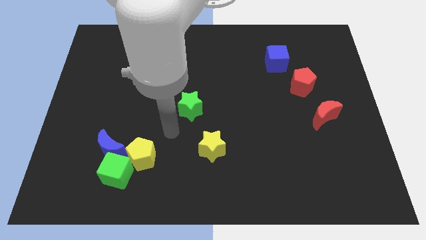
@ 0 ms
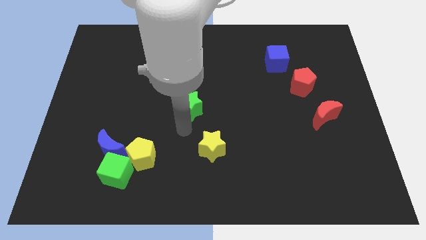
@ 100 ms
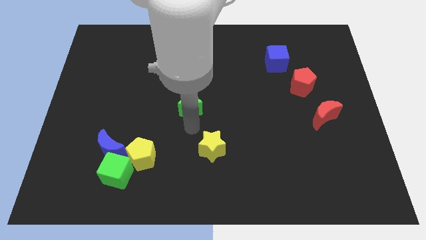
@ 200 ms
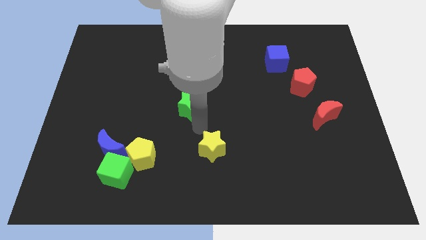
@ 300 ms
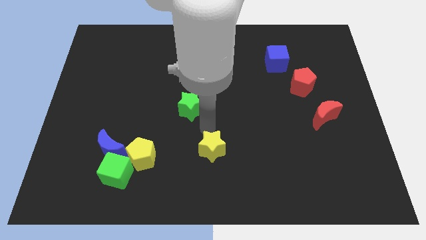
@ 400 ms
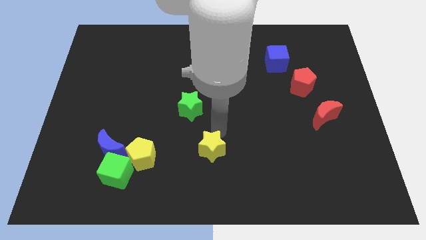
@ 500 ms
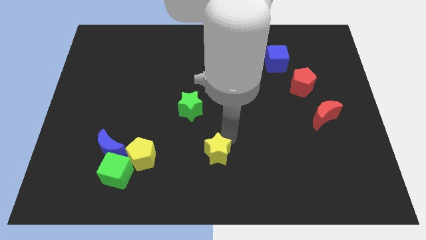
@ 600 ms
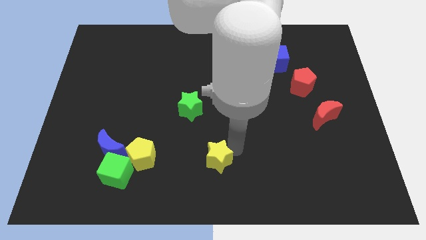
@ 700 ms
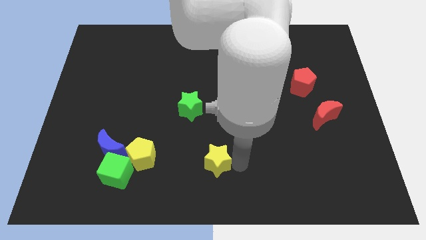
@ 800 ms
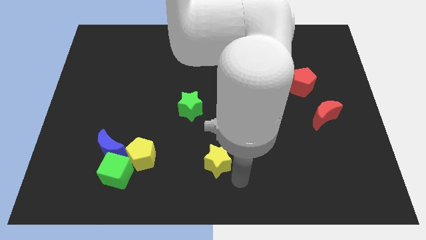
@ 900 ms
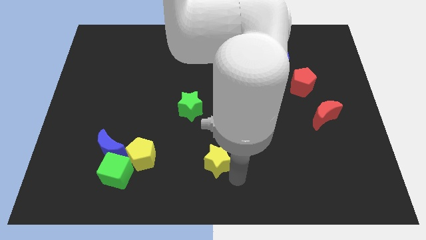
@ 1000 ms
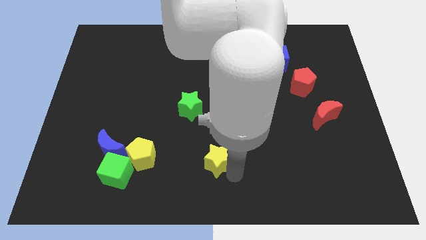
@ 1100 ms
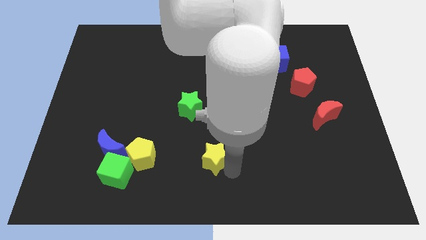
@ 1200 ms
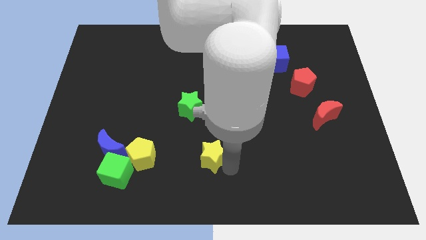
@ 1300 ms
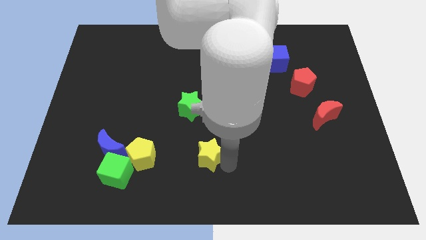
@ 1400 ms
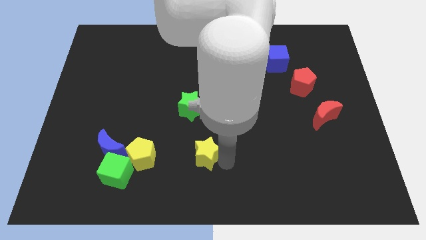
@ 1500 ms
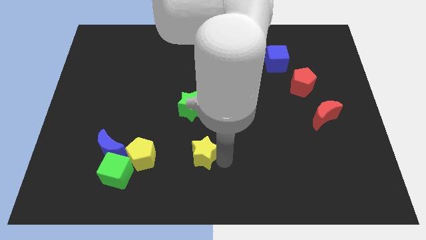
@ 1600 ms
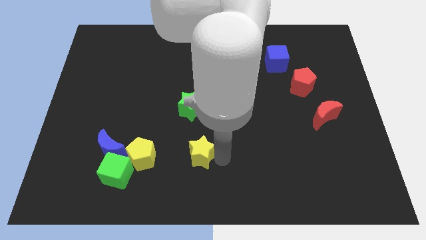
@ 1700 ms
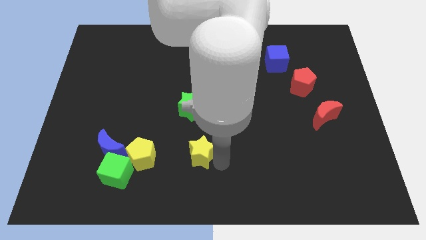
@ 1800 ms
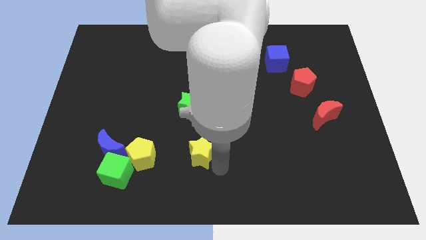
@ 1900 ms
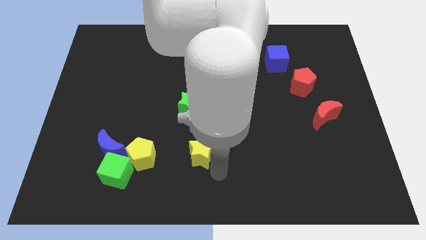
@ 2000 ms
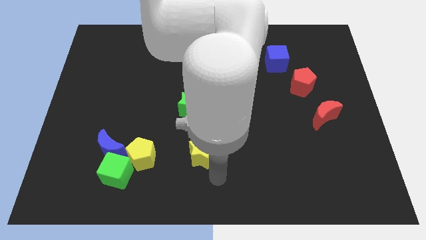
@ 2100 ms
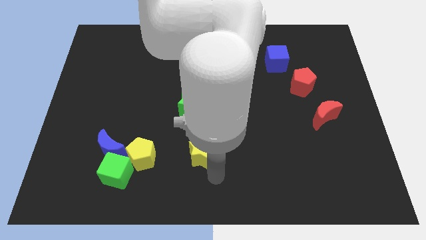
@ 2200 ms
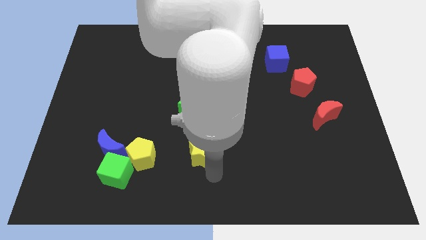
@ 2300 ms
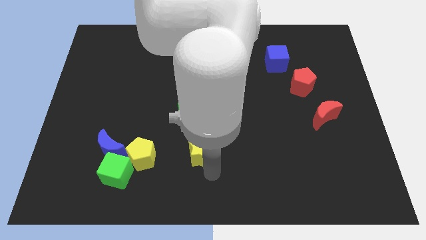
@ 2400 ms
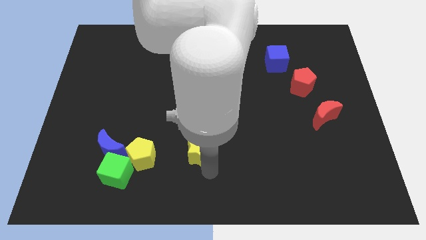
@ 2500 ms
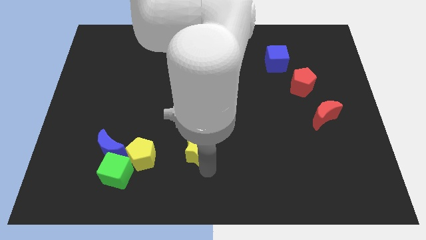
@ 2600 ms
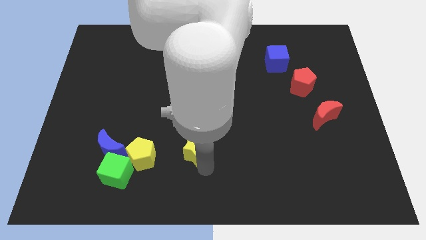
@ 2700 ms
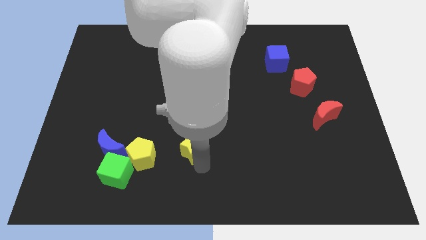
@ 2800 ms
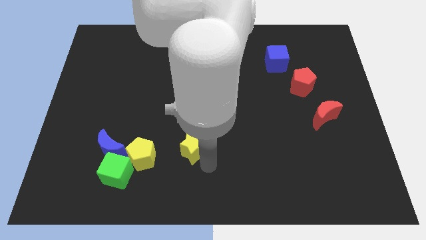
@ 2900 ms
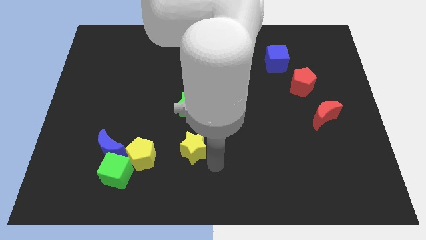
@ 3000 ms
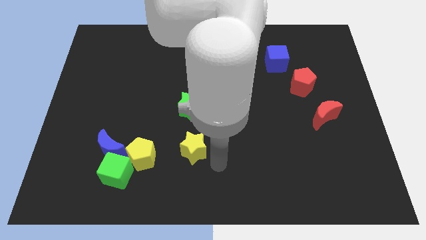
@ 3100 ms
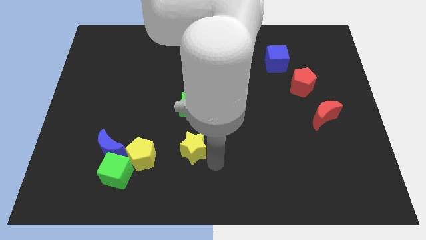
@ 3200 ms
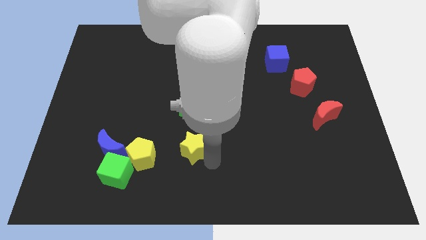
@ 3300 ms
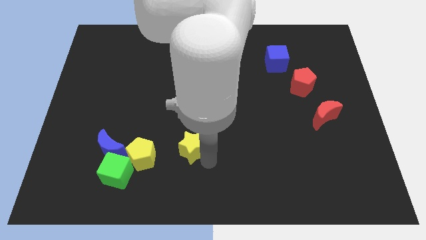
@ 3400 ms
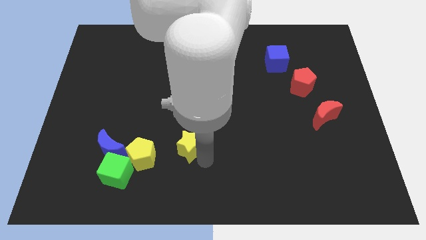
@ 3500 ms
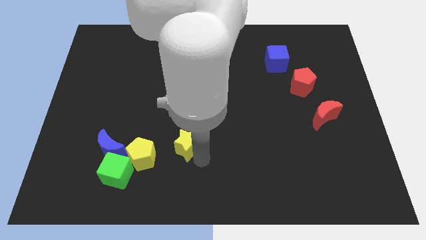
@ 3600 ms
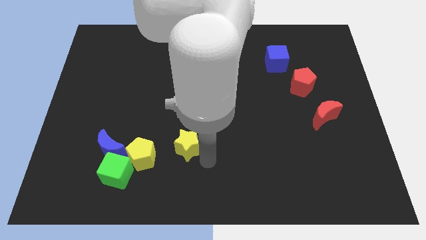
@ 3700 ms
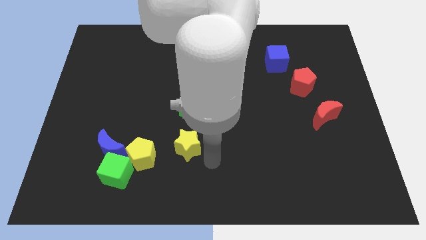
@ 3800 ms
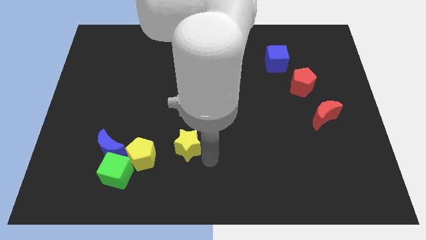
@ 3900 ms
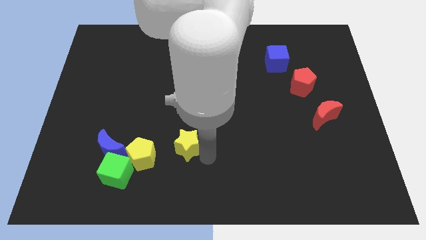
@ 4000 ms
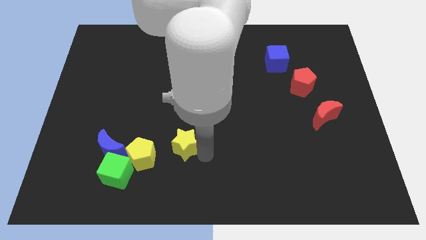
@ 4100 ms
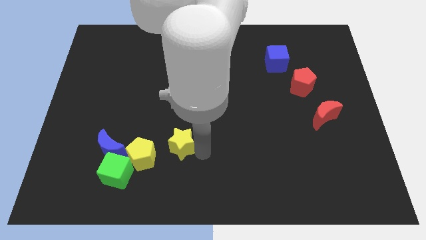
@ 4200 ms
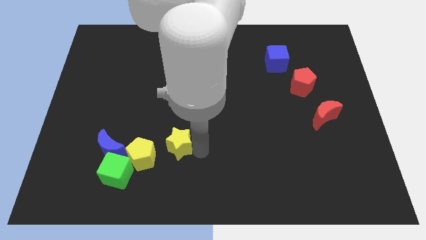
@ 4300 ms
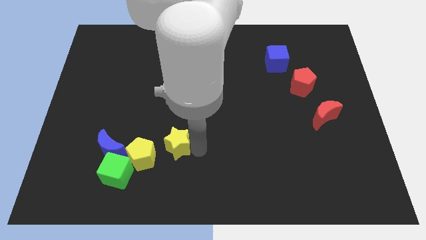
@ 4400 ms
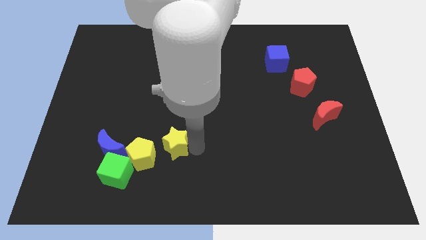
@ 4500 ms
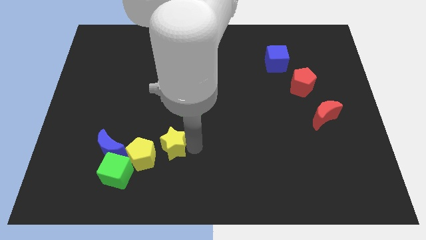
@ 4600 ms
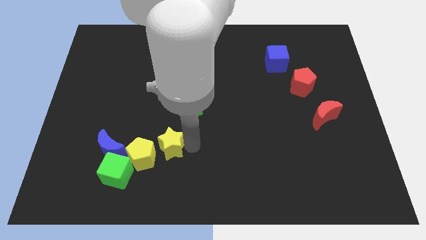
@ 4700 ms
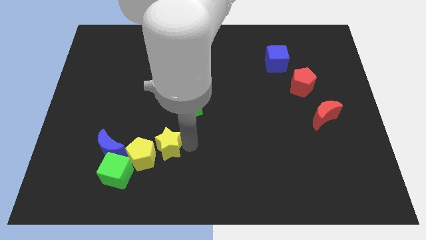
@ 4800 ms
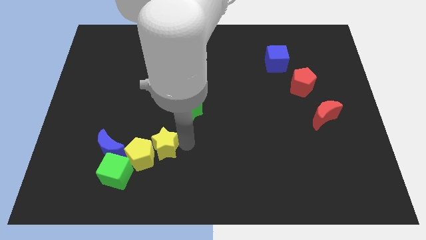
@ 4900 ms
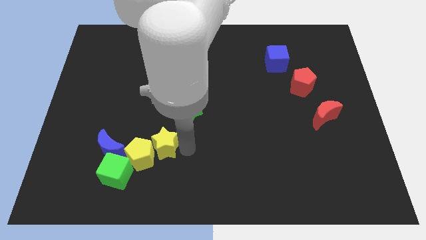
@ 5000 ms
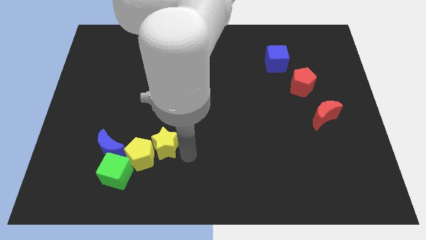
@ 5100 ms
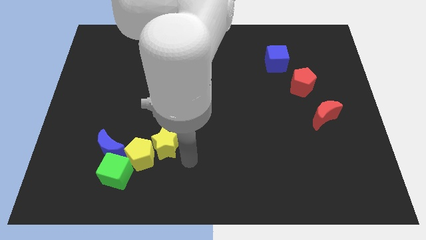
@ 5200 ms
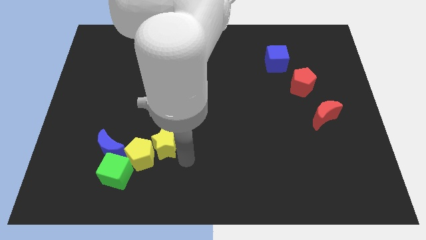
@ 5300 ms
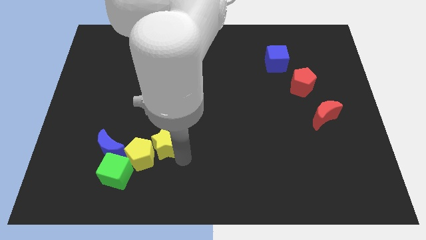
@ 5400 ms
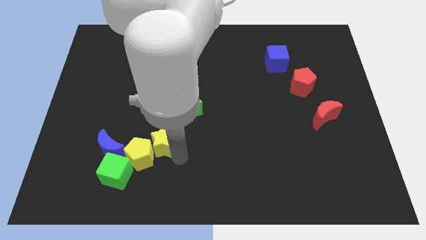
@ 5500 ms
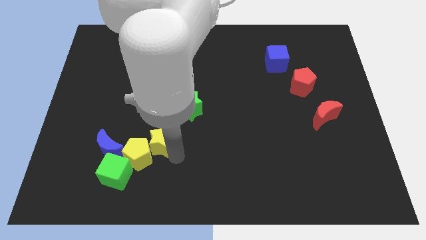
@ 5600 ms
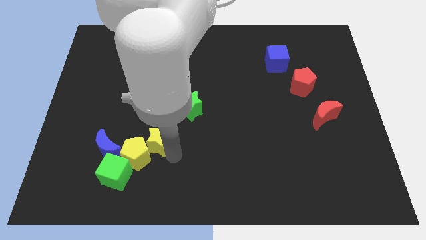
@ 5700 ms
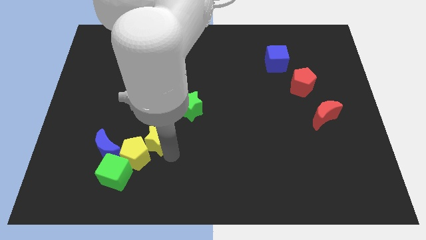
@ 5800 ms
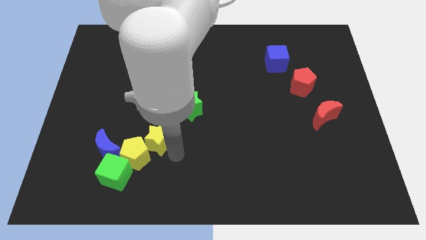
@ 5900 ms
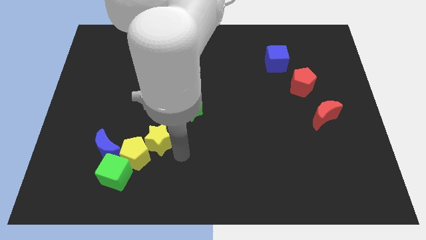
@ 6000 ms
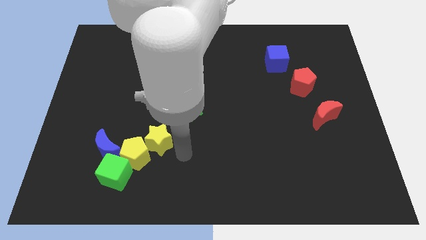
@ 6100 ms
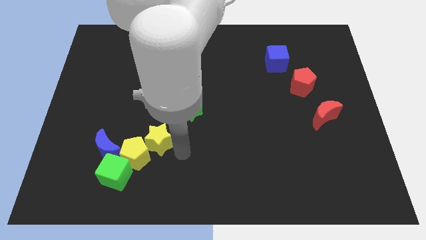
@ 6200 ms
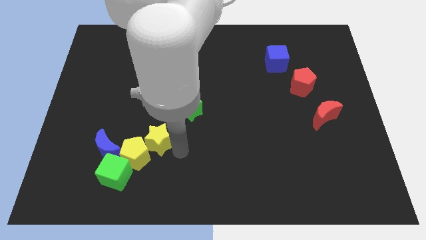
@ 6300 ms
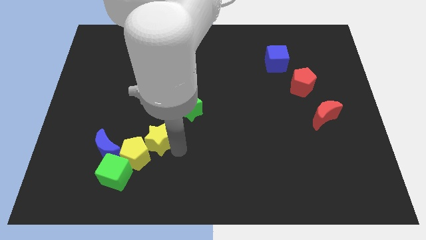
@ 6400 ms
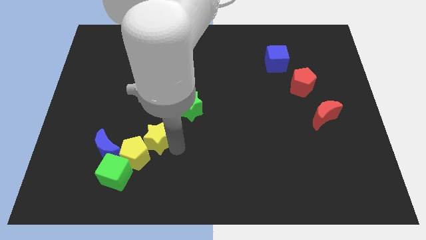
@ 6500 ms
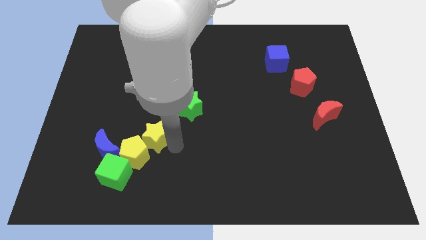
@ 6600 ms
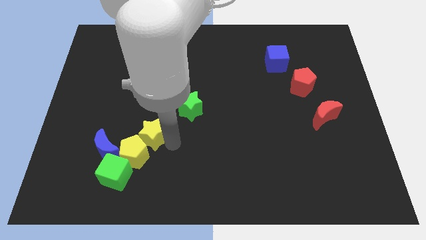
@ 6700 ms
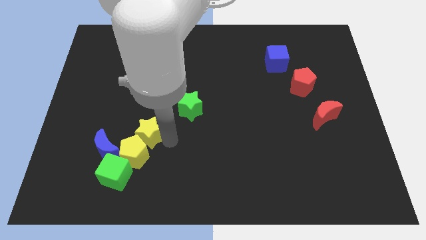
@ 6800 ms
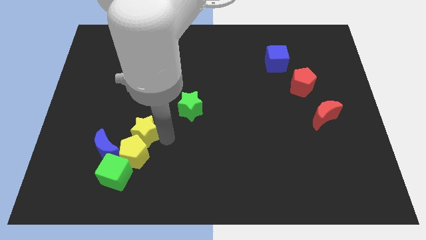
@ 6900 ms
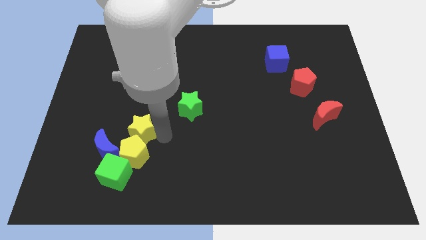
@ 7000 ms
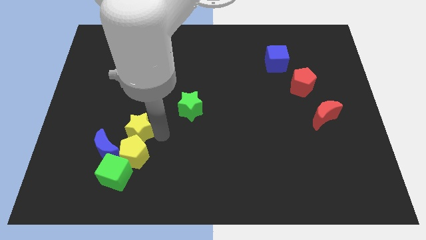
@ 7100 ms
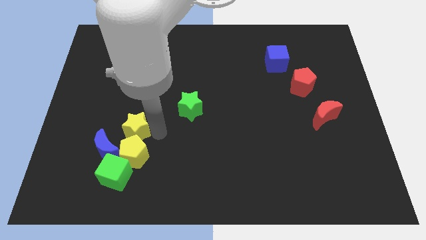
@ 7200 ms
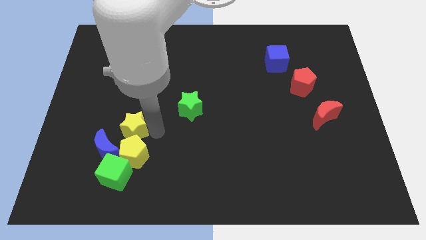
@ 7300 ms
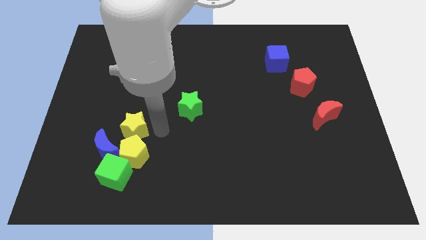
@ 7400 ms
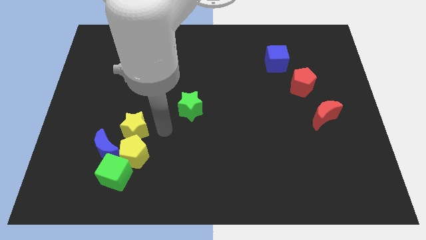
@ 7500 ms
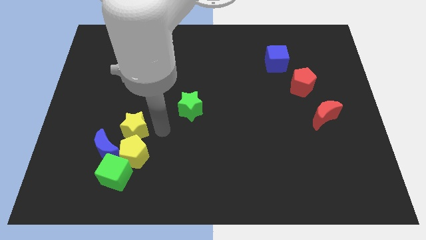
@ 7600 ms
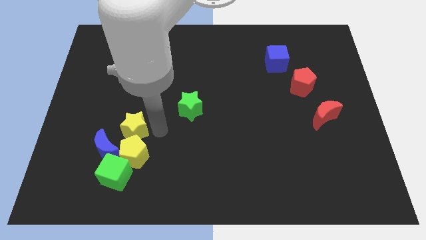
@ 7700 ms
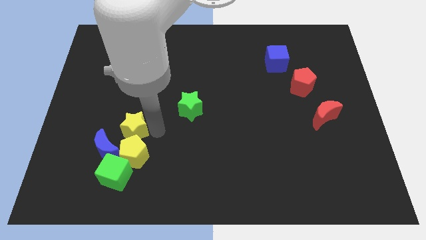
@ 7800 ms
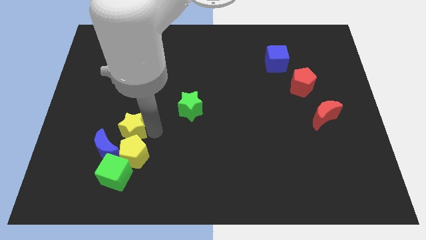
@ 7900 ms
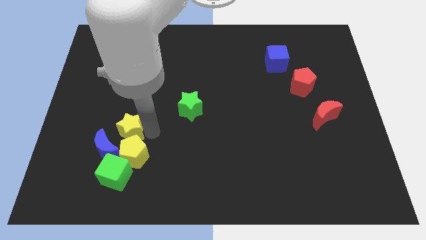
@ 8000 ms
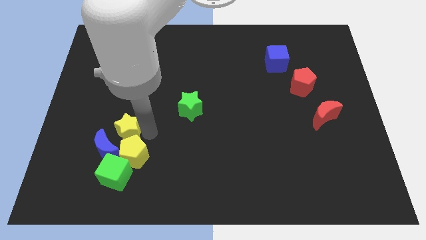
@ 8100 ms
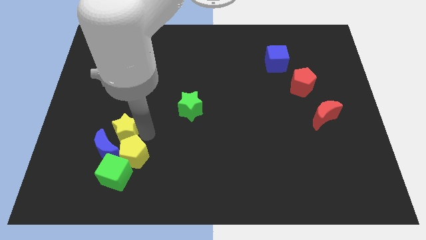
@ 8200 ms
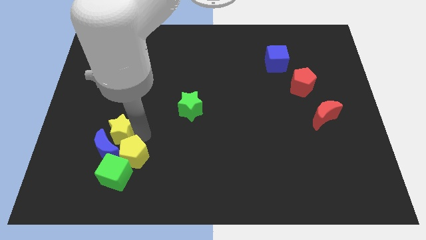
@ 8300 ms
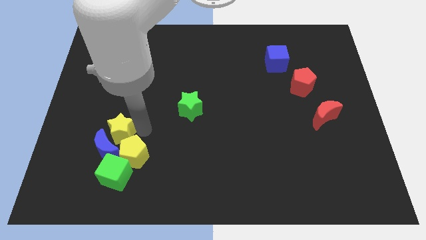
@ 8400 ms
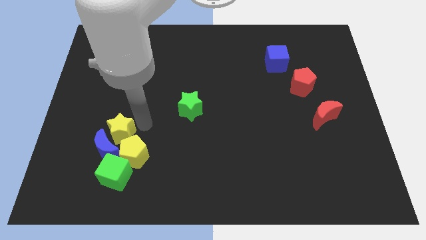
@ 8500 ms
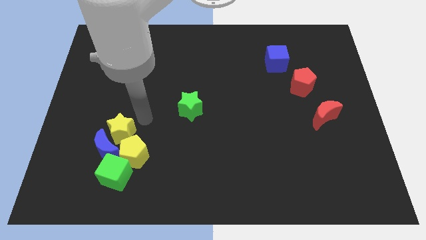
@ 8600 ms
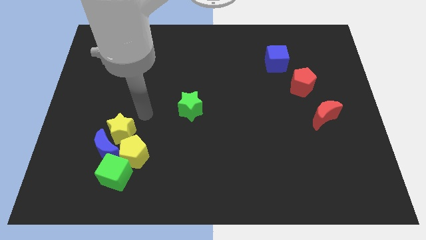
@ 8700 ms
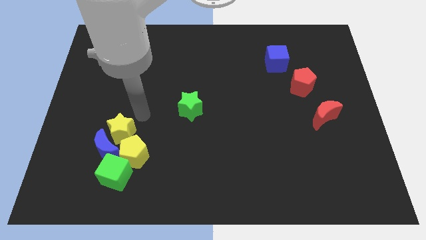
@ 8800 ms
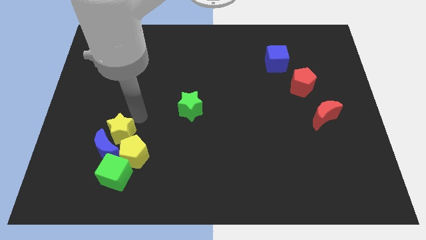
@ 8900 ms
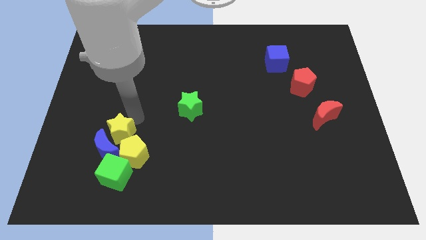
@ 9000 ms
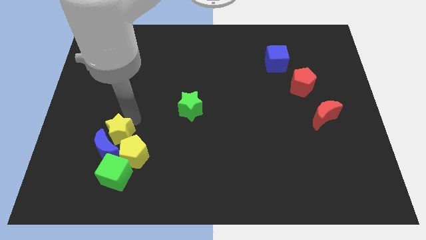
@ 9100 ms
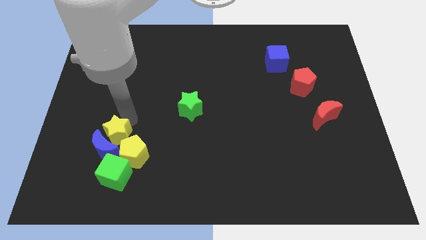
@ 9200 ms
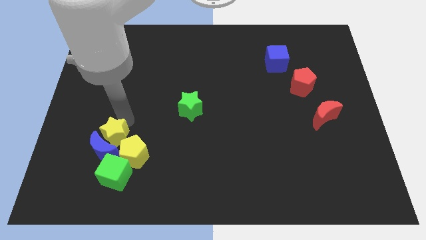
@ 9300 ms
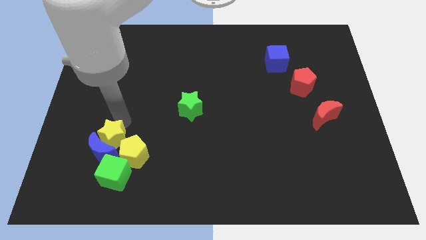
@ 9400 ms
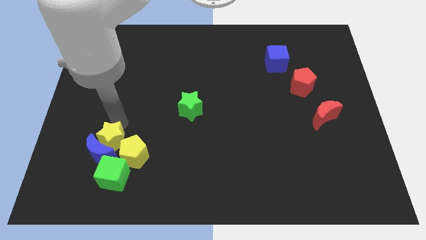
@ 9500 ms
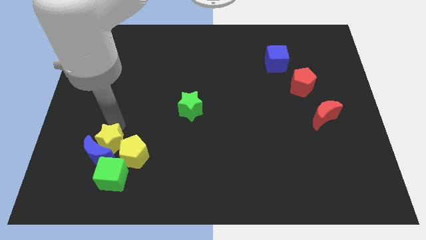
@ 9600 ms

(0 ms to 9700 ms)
push the yellow star to the top left of the green cube
